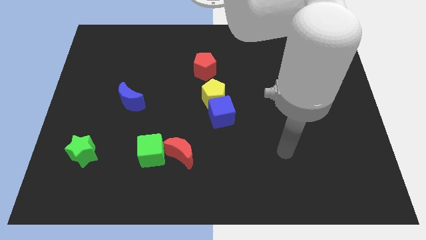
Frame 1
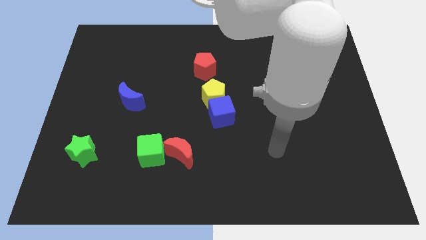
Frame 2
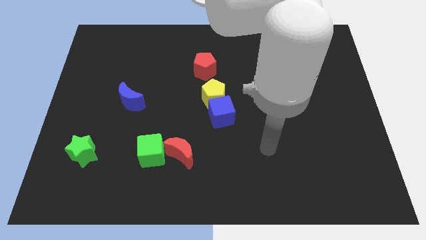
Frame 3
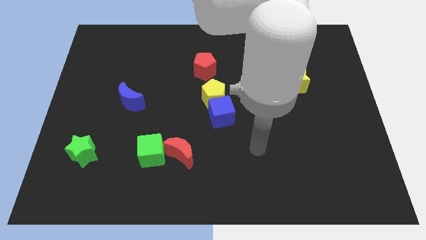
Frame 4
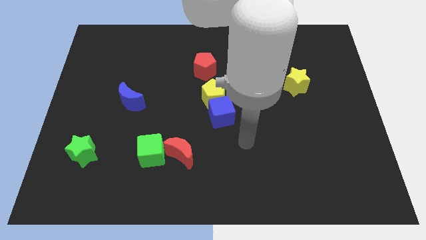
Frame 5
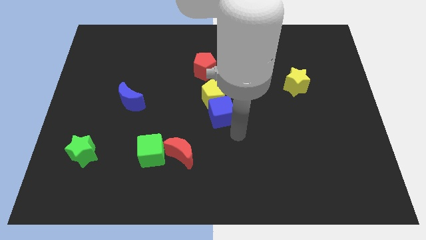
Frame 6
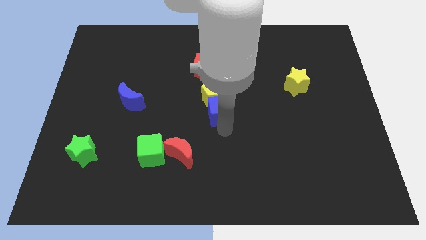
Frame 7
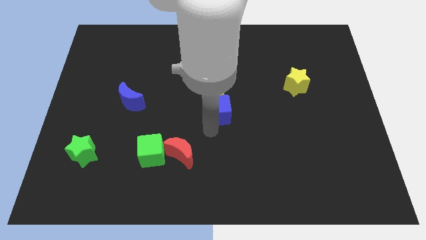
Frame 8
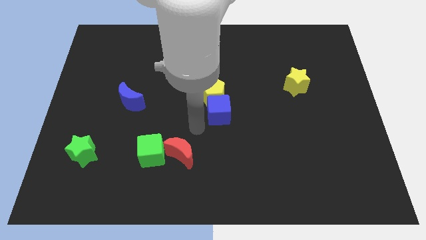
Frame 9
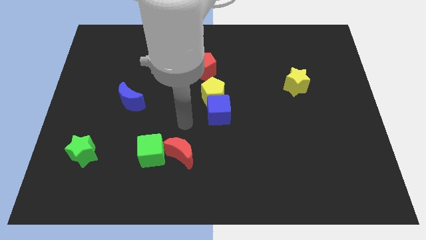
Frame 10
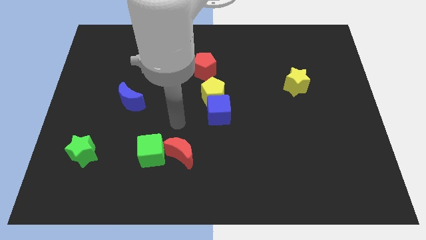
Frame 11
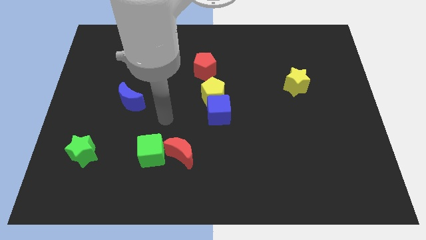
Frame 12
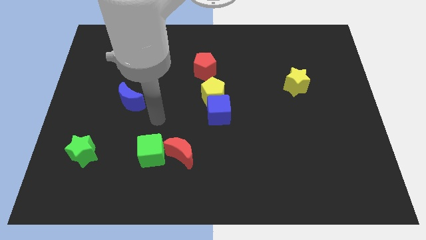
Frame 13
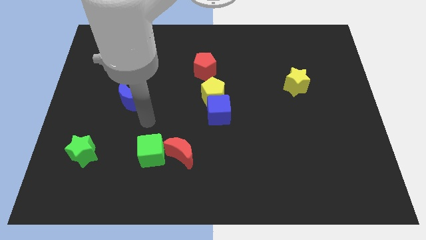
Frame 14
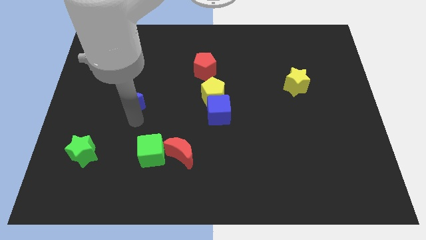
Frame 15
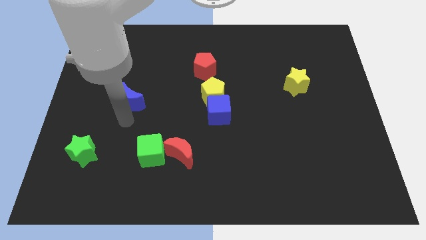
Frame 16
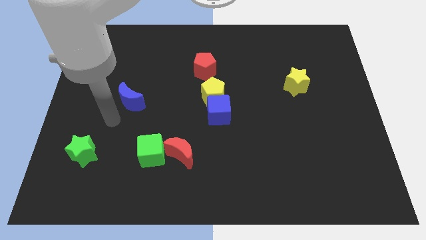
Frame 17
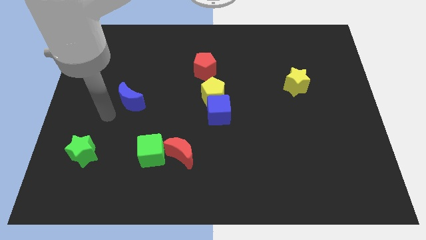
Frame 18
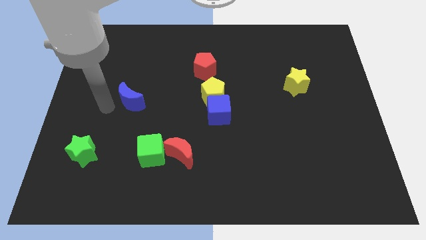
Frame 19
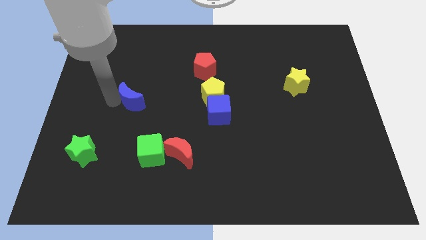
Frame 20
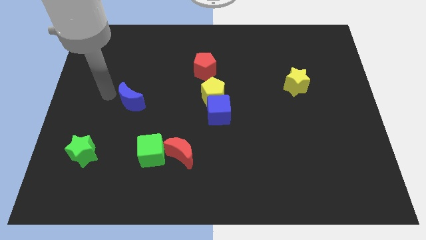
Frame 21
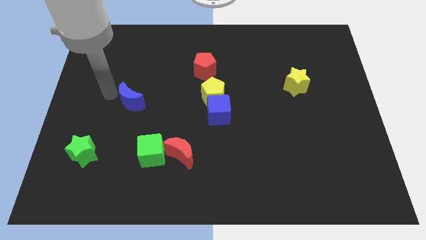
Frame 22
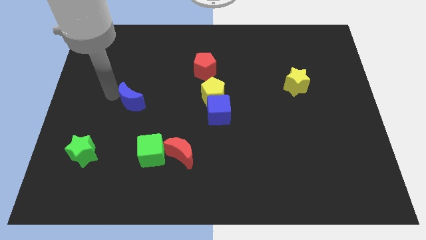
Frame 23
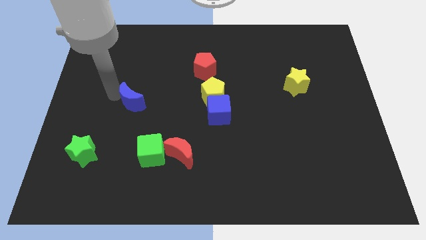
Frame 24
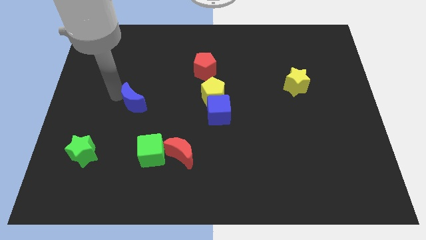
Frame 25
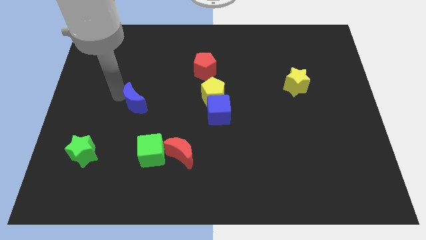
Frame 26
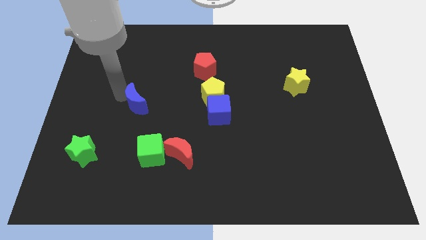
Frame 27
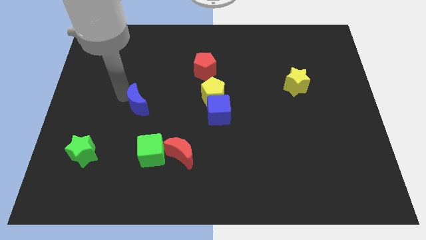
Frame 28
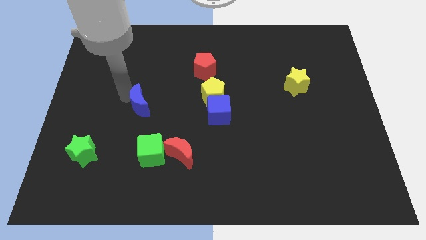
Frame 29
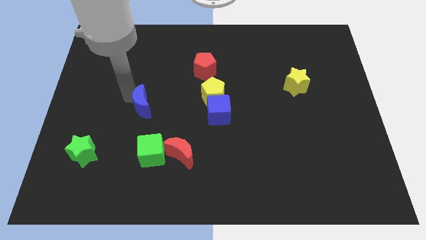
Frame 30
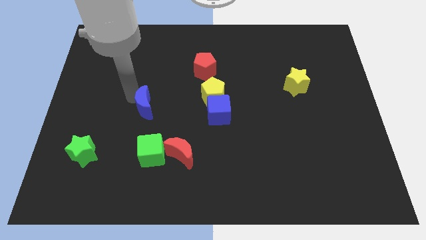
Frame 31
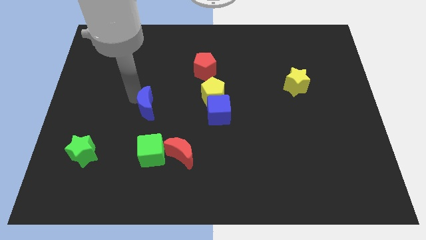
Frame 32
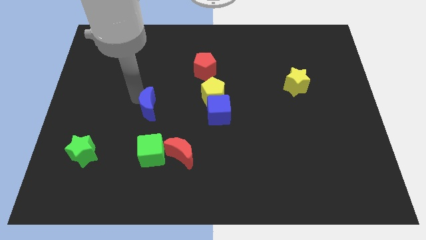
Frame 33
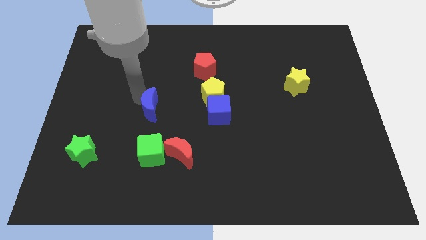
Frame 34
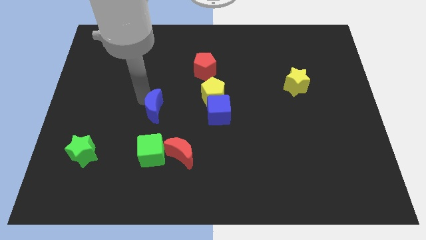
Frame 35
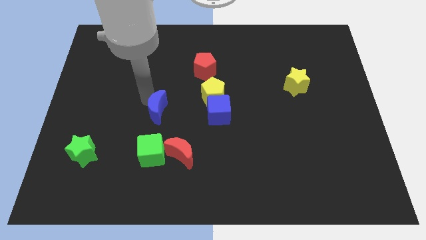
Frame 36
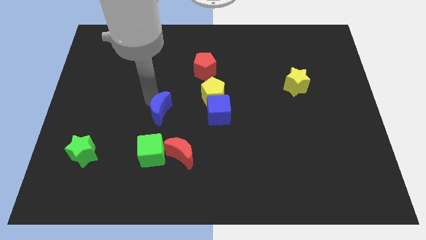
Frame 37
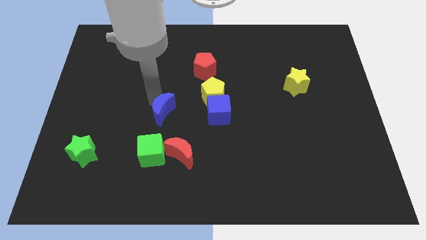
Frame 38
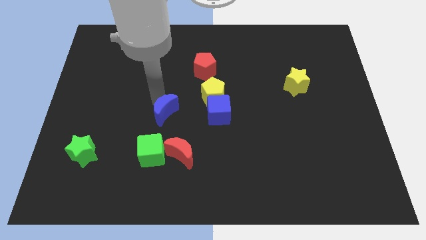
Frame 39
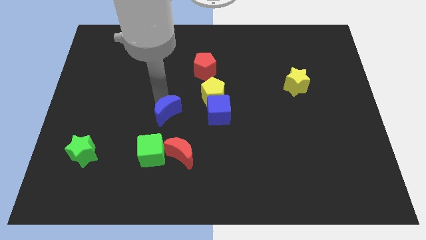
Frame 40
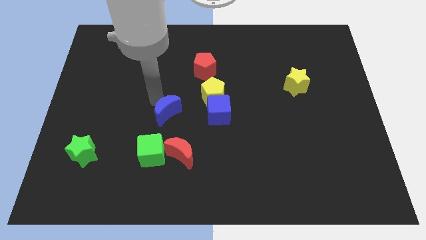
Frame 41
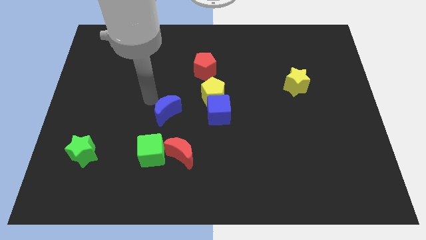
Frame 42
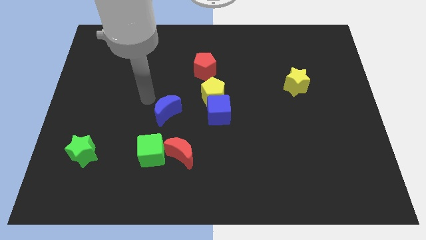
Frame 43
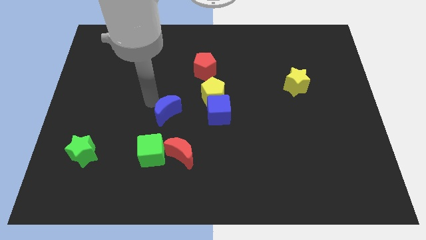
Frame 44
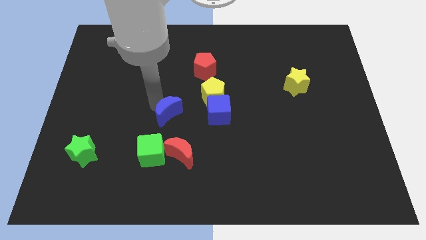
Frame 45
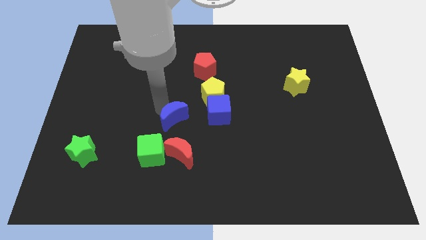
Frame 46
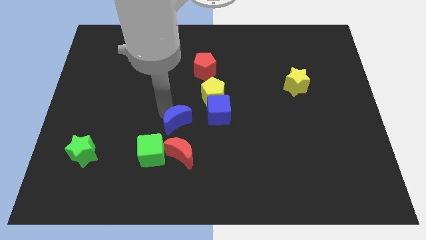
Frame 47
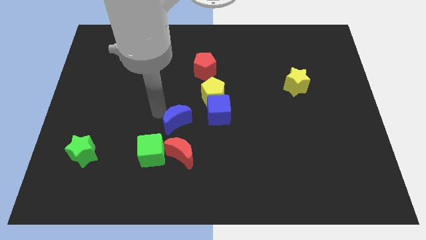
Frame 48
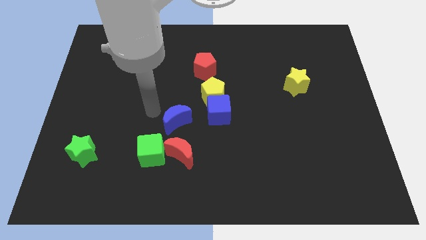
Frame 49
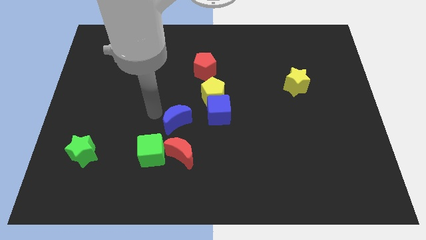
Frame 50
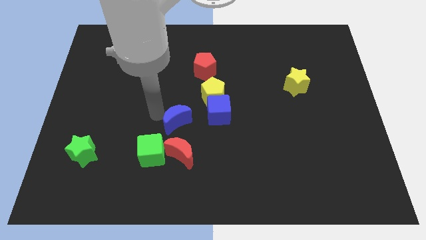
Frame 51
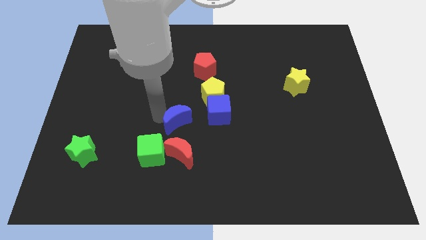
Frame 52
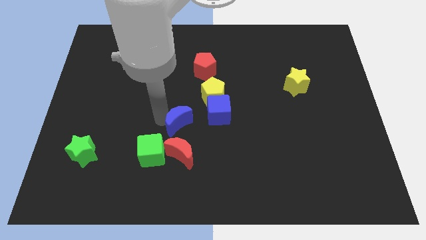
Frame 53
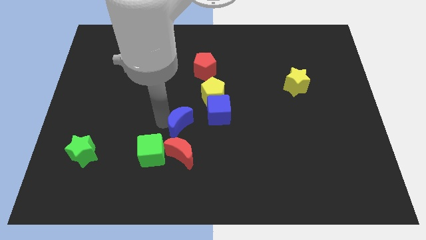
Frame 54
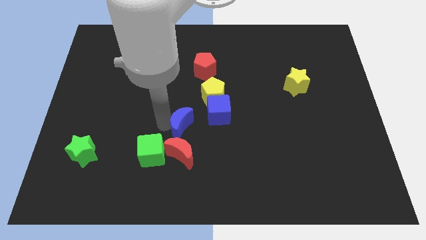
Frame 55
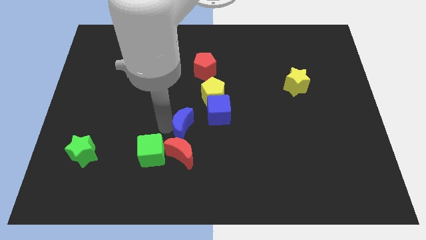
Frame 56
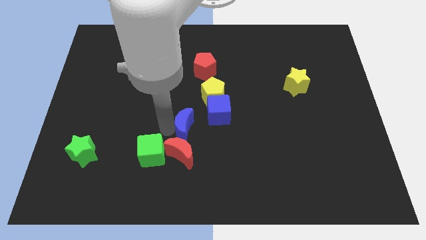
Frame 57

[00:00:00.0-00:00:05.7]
put the blue moon to the top right side of the red moon

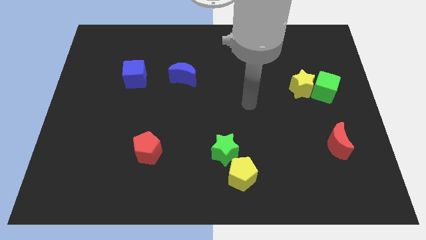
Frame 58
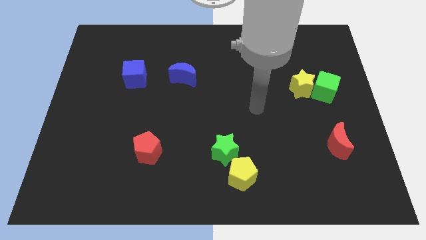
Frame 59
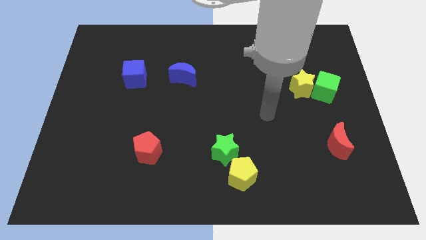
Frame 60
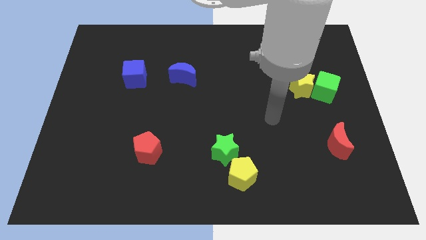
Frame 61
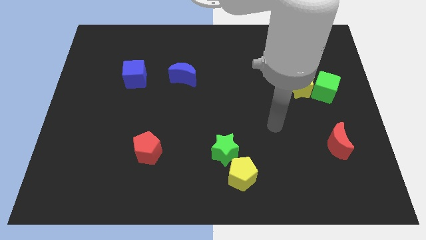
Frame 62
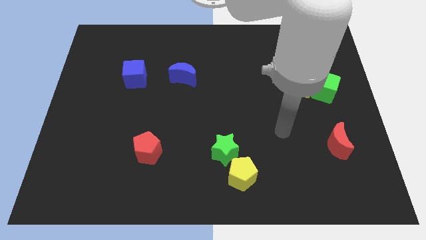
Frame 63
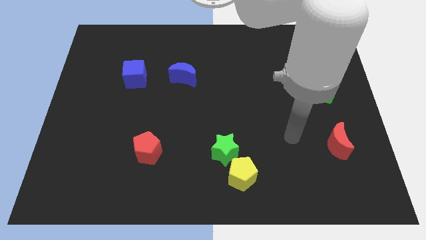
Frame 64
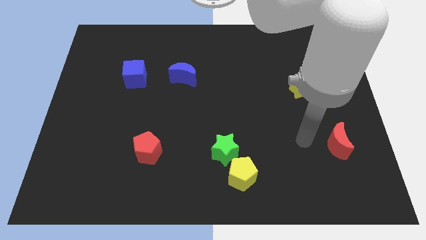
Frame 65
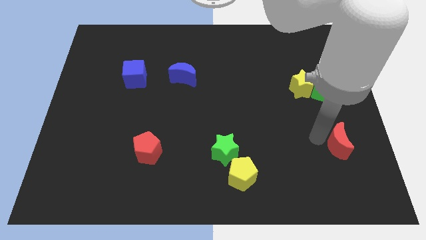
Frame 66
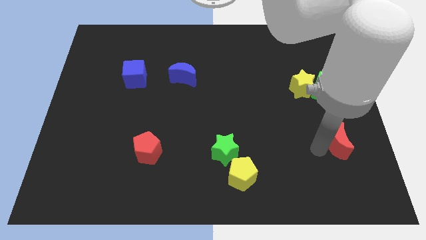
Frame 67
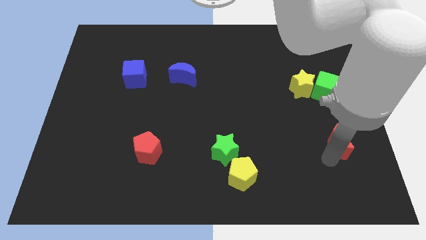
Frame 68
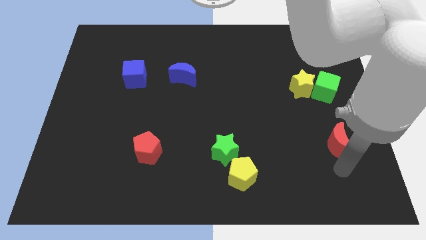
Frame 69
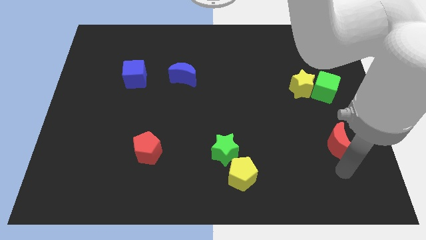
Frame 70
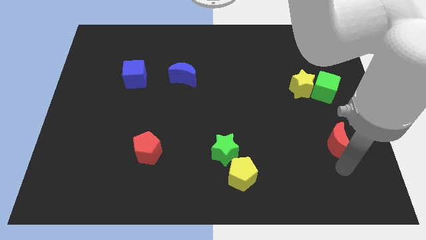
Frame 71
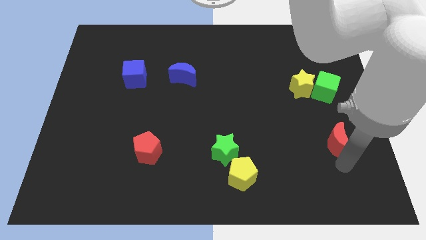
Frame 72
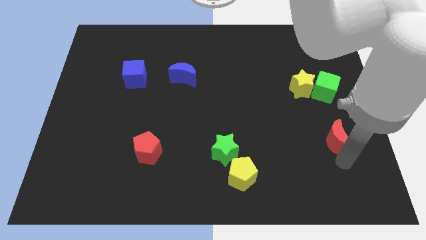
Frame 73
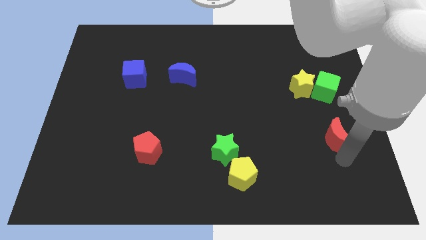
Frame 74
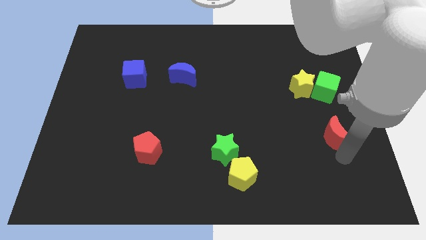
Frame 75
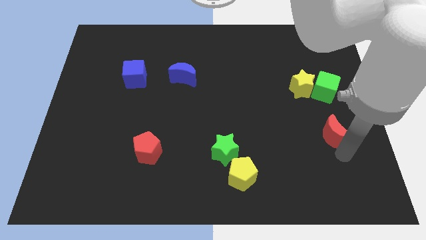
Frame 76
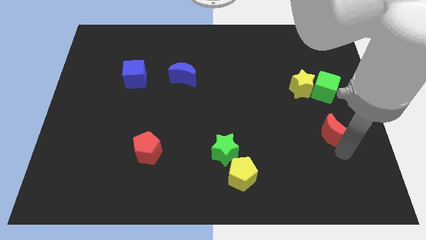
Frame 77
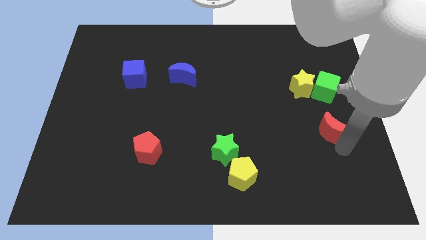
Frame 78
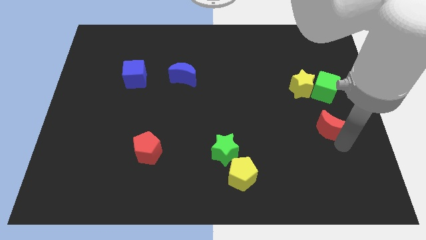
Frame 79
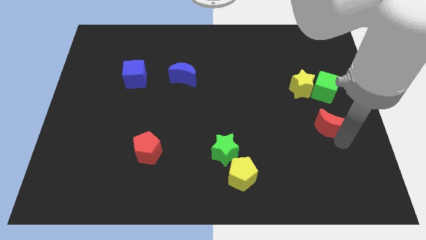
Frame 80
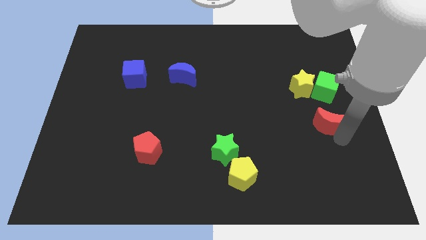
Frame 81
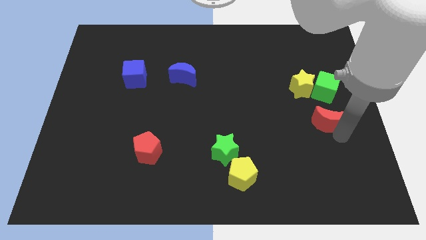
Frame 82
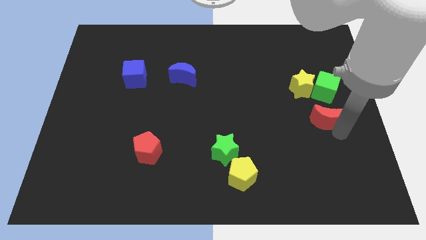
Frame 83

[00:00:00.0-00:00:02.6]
move the red moon to the bottom right of the yellow star
